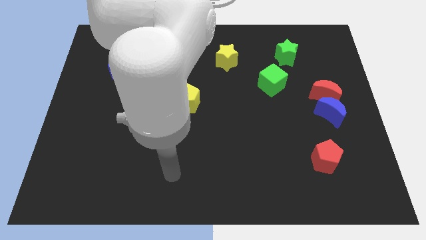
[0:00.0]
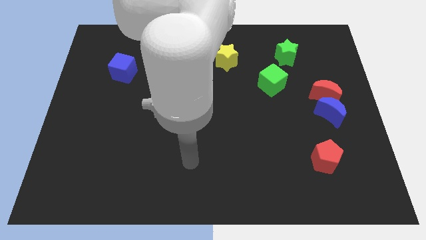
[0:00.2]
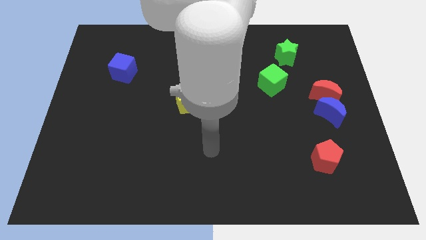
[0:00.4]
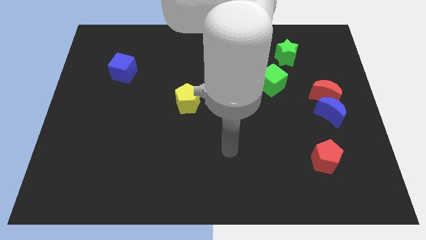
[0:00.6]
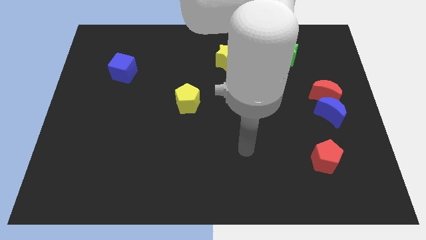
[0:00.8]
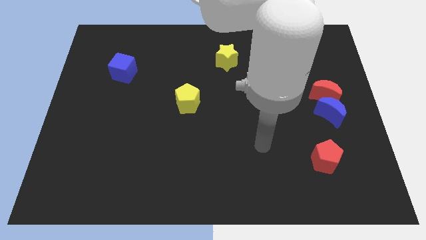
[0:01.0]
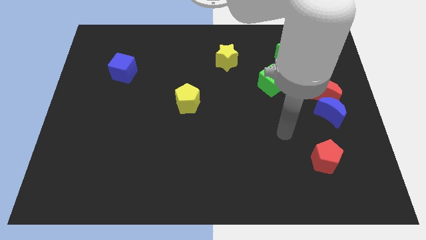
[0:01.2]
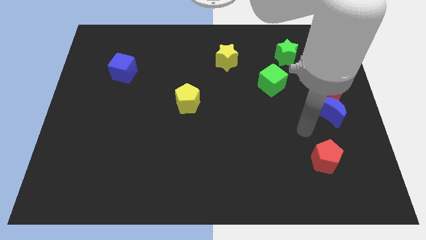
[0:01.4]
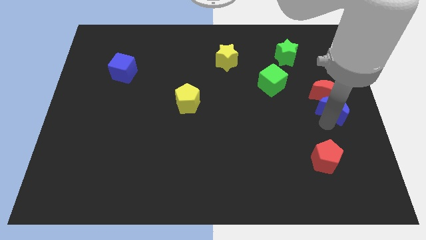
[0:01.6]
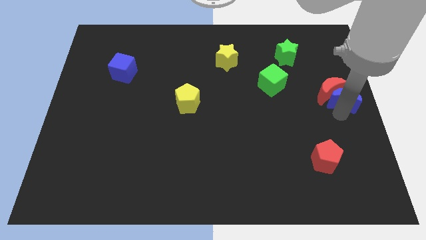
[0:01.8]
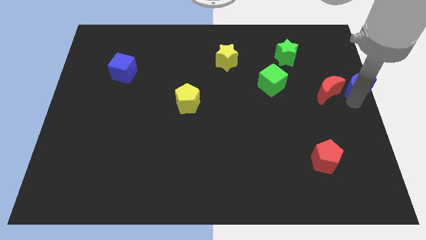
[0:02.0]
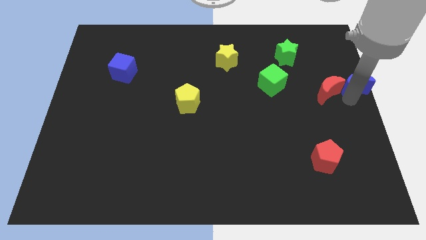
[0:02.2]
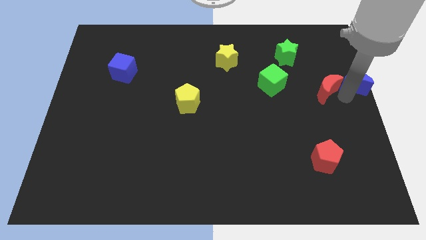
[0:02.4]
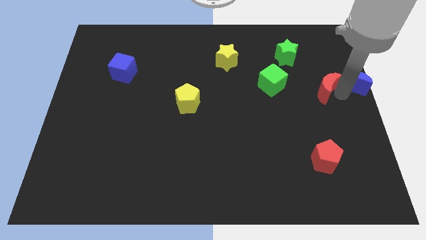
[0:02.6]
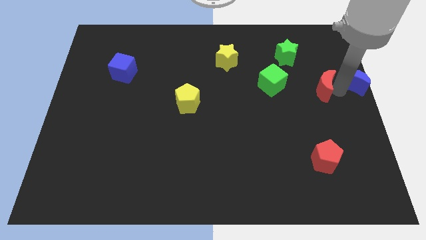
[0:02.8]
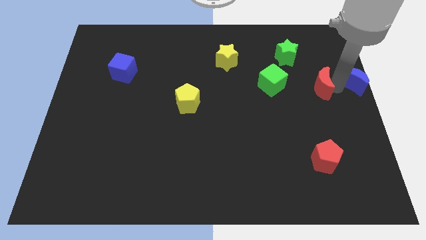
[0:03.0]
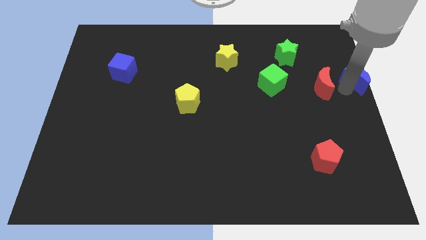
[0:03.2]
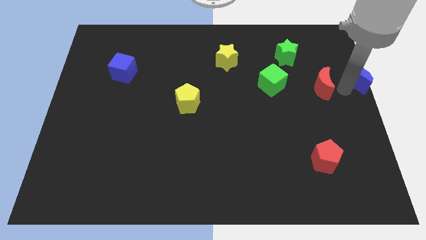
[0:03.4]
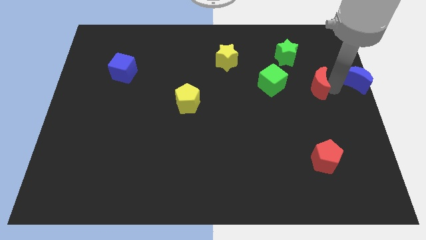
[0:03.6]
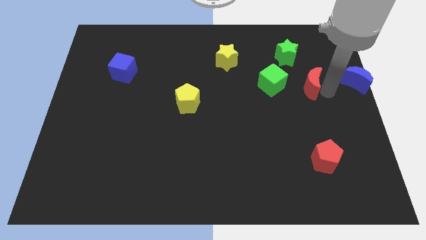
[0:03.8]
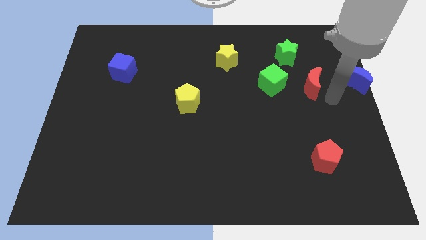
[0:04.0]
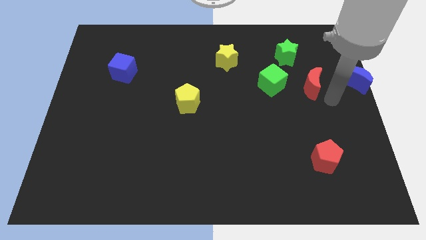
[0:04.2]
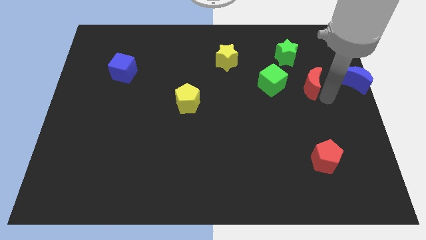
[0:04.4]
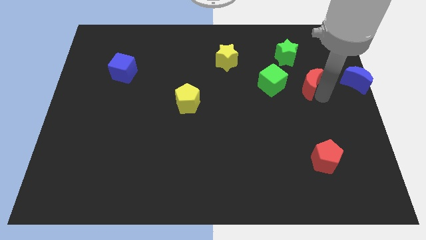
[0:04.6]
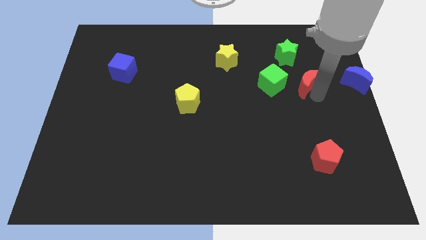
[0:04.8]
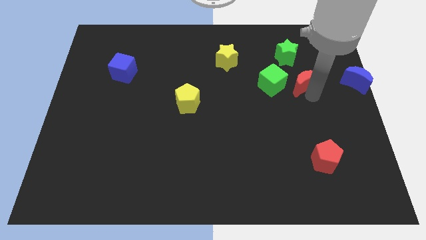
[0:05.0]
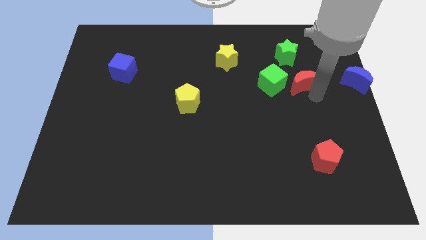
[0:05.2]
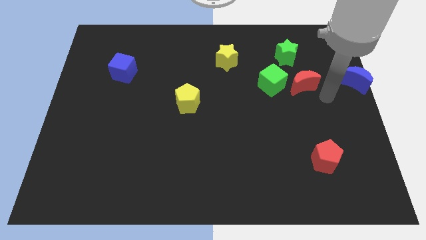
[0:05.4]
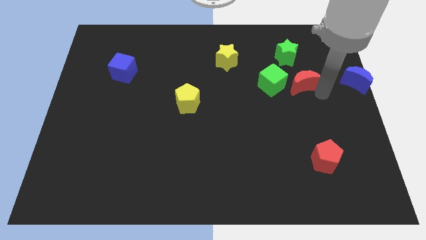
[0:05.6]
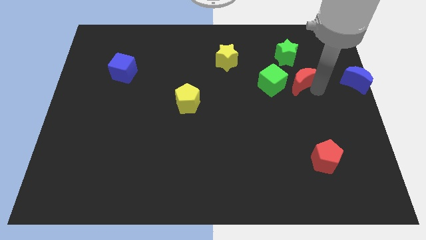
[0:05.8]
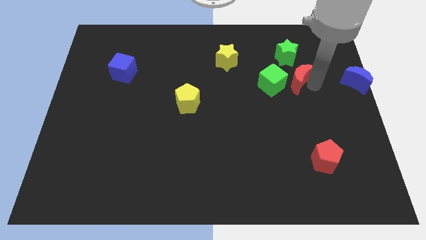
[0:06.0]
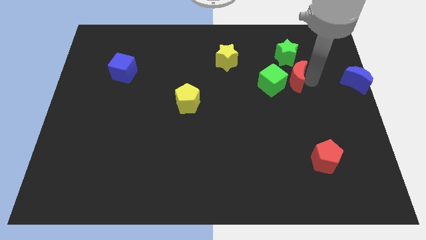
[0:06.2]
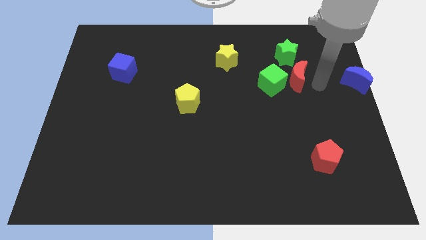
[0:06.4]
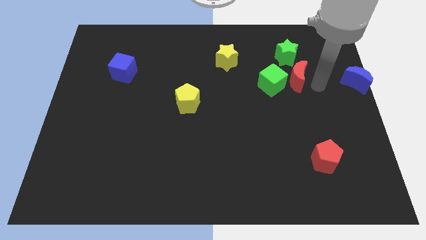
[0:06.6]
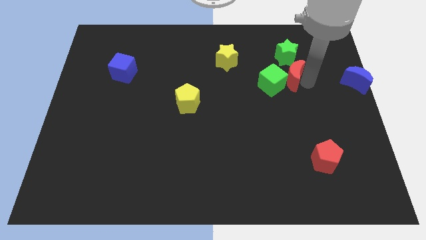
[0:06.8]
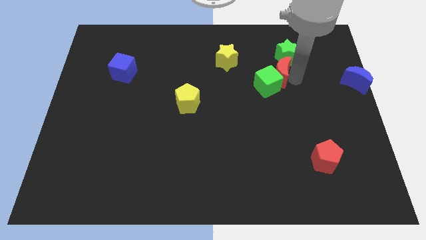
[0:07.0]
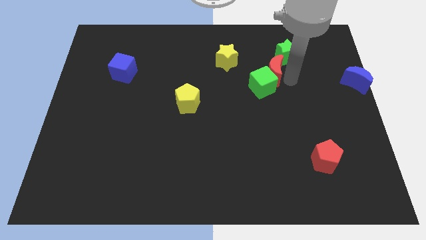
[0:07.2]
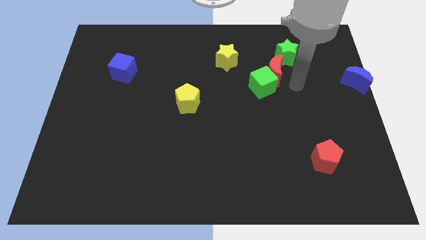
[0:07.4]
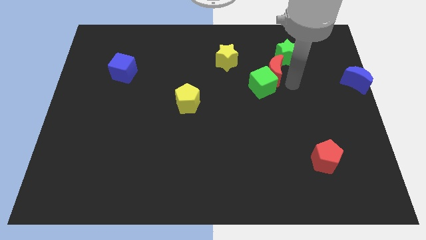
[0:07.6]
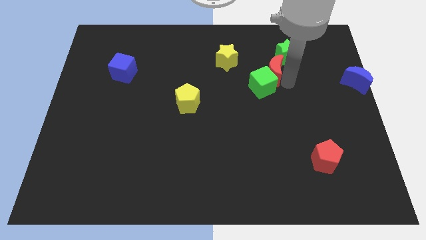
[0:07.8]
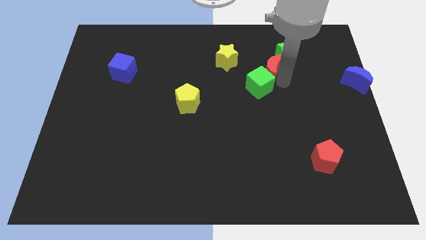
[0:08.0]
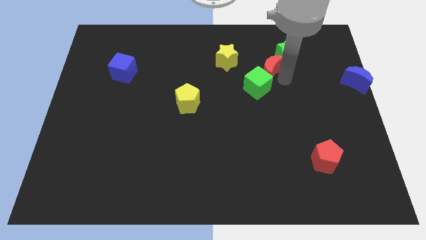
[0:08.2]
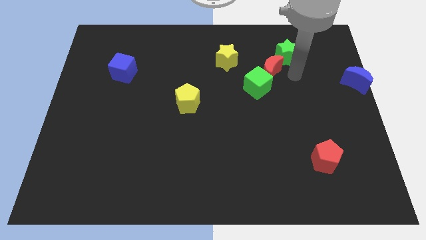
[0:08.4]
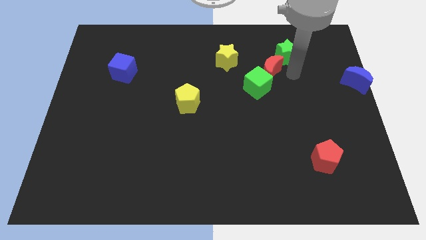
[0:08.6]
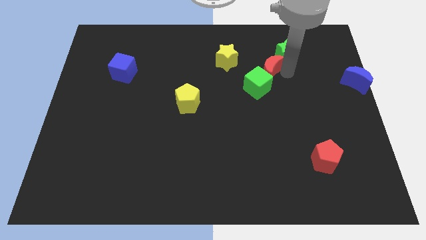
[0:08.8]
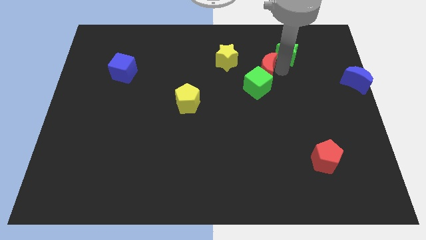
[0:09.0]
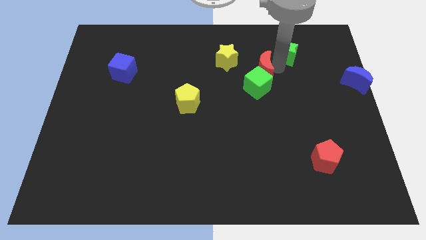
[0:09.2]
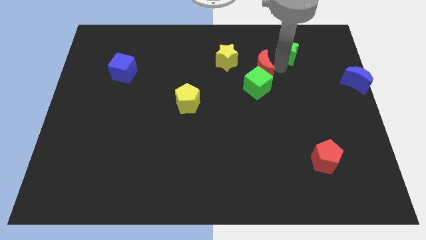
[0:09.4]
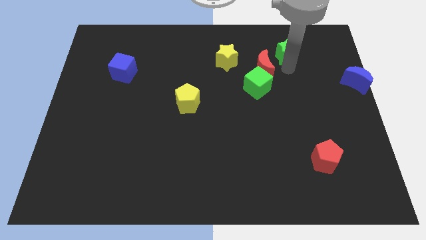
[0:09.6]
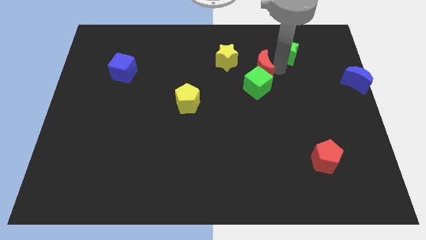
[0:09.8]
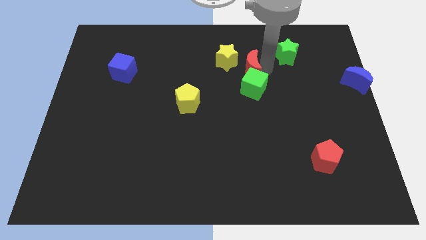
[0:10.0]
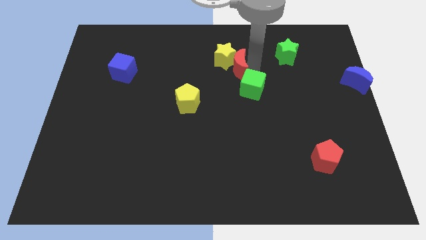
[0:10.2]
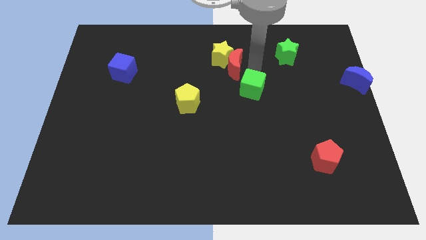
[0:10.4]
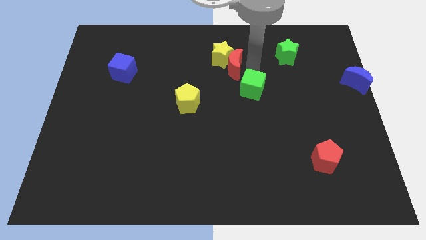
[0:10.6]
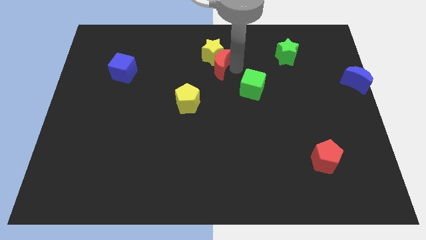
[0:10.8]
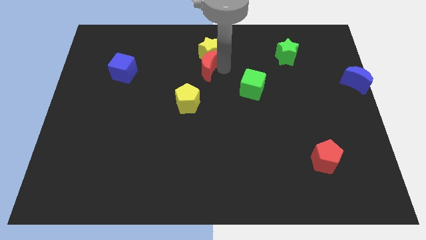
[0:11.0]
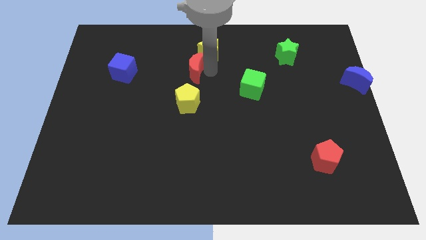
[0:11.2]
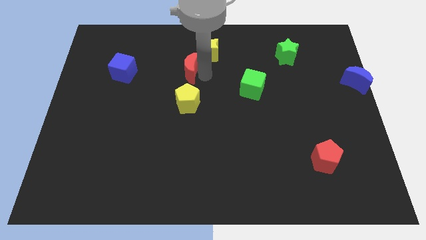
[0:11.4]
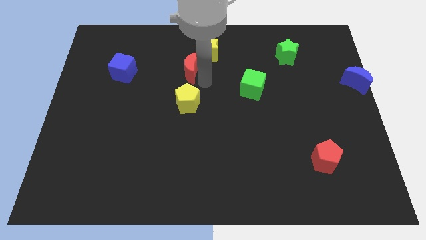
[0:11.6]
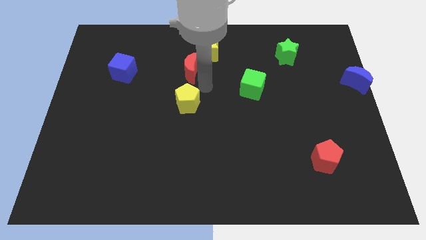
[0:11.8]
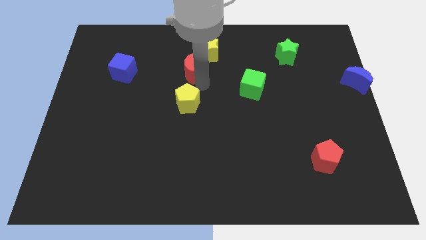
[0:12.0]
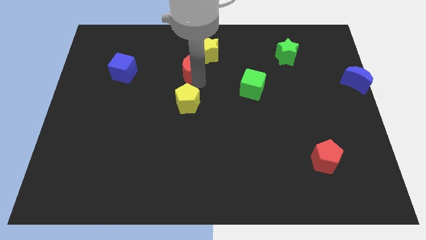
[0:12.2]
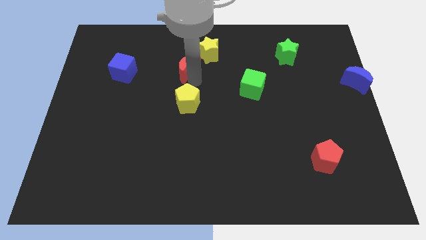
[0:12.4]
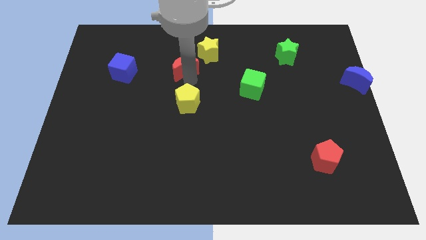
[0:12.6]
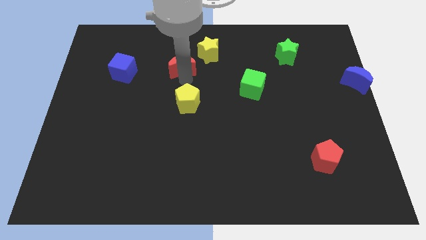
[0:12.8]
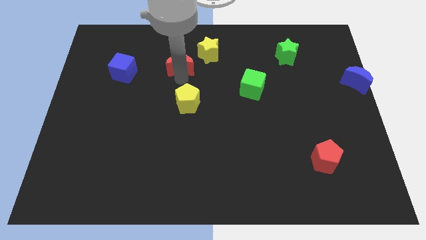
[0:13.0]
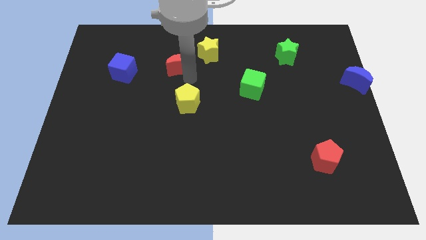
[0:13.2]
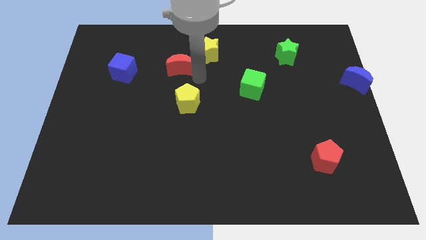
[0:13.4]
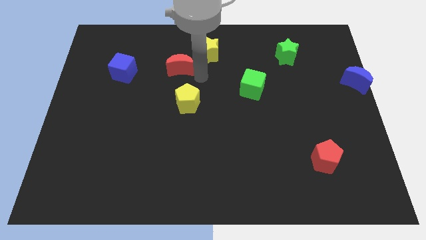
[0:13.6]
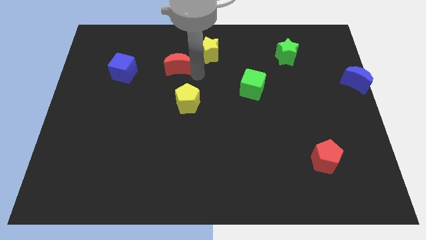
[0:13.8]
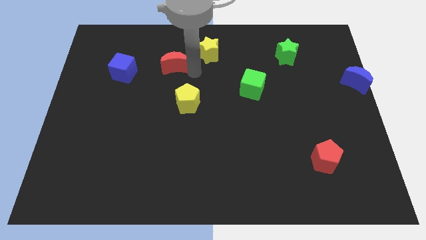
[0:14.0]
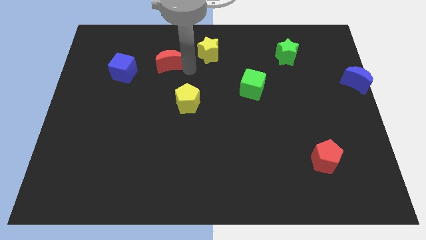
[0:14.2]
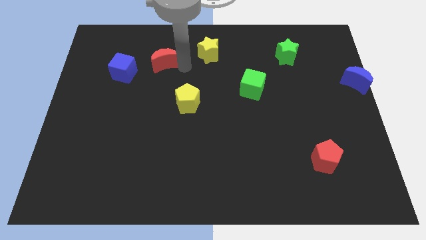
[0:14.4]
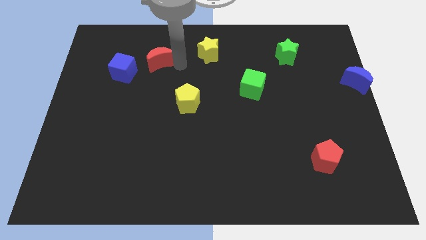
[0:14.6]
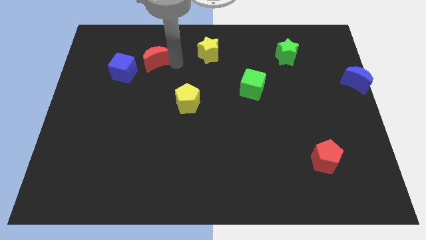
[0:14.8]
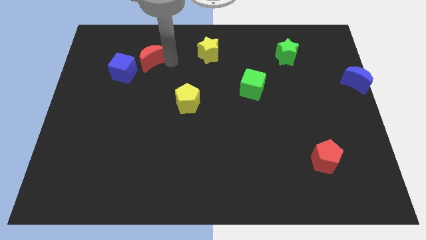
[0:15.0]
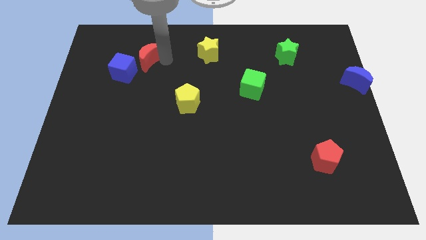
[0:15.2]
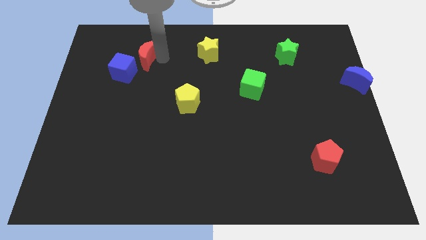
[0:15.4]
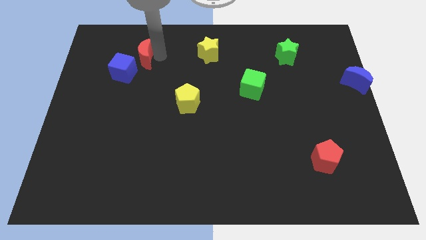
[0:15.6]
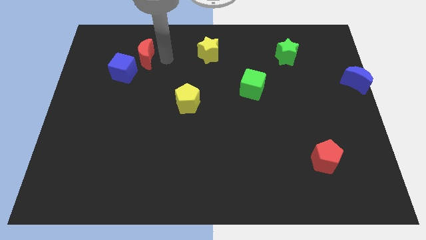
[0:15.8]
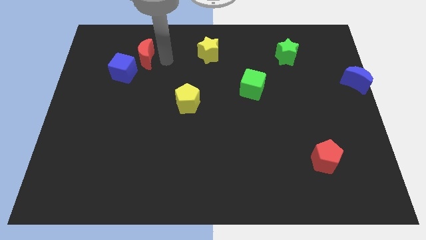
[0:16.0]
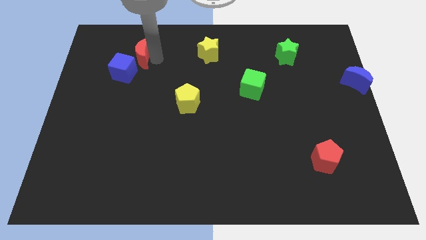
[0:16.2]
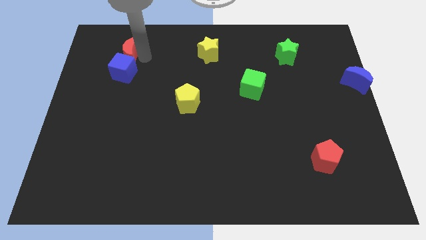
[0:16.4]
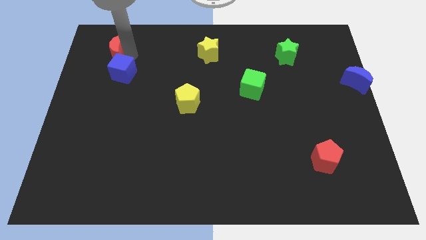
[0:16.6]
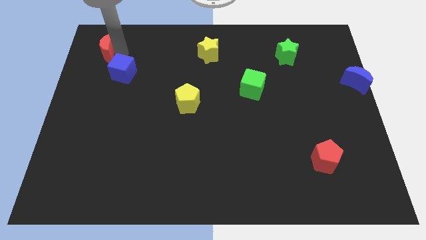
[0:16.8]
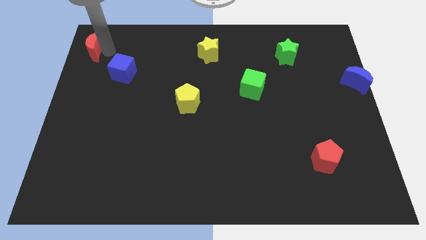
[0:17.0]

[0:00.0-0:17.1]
move the red moon to the top left corner
